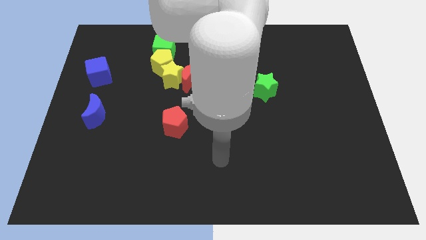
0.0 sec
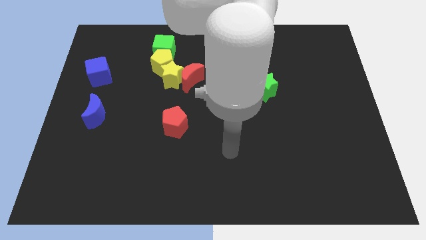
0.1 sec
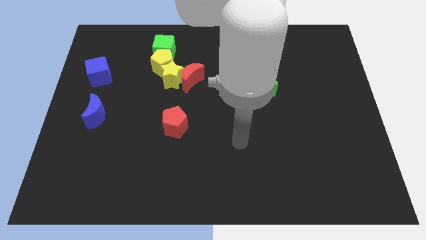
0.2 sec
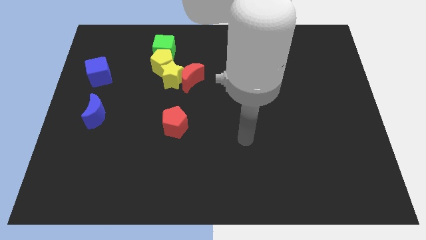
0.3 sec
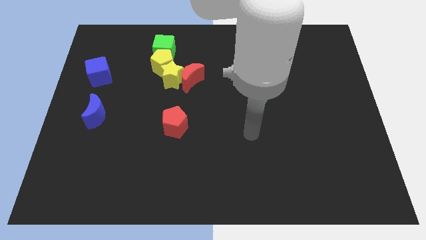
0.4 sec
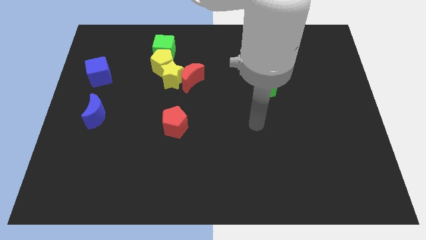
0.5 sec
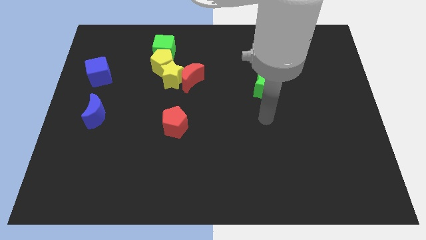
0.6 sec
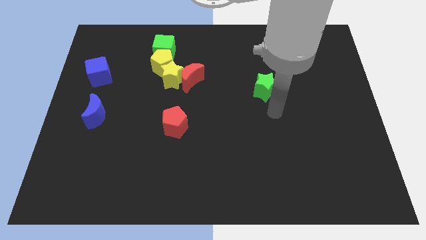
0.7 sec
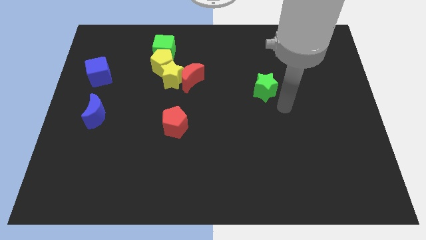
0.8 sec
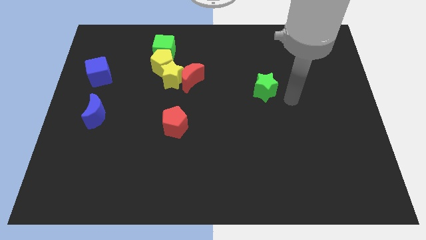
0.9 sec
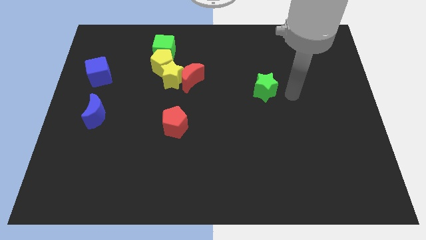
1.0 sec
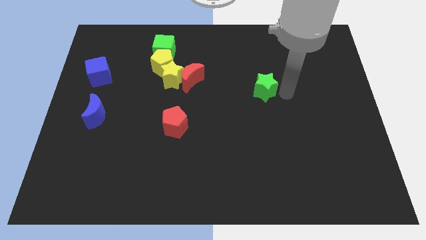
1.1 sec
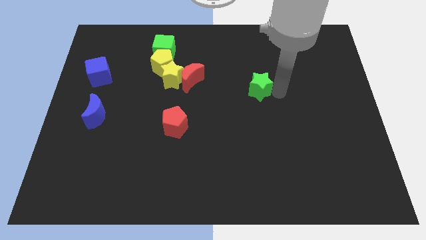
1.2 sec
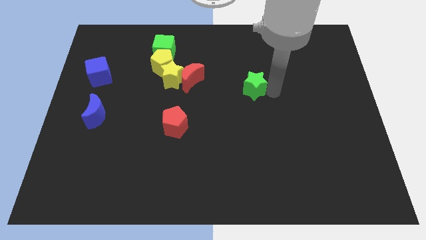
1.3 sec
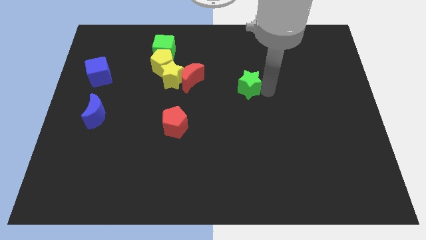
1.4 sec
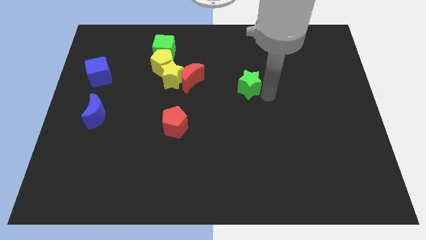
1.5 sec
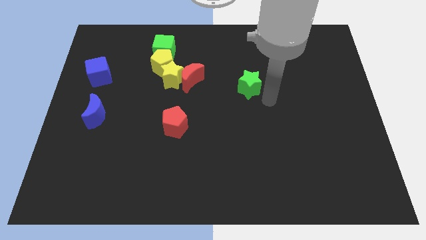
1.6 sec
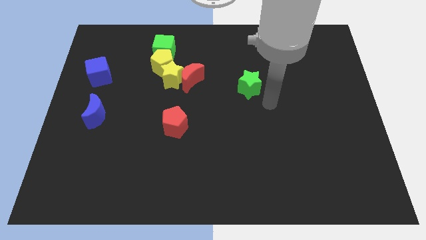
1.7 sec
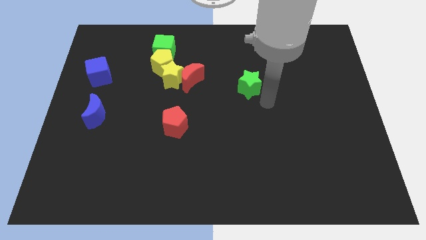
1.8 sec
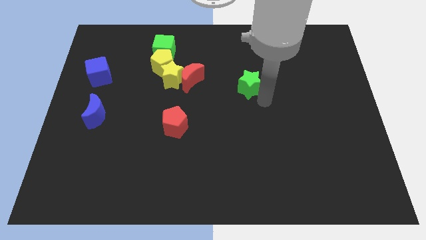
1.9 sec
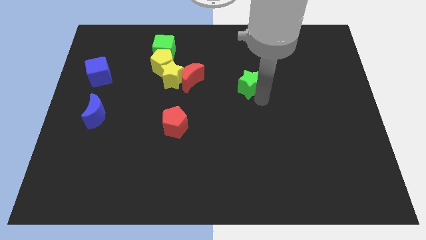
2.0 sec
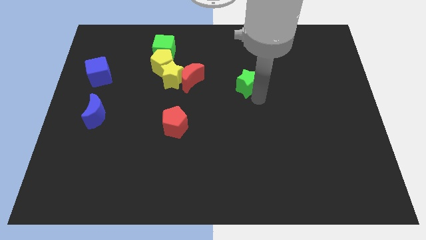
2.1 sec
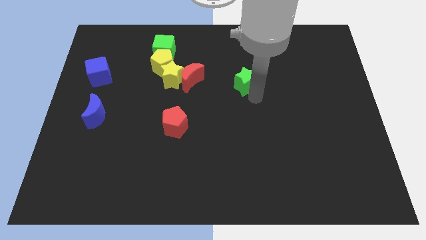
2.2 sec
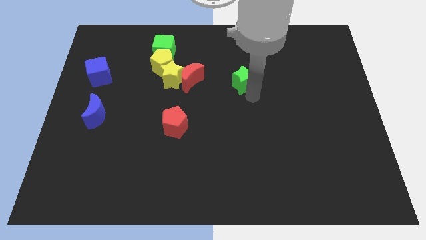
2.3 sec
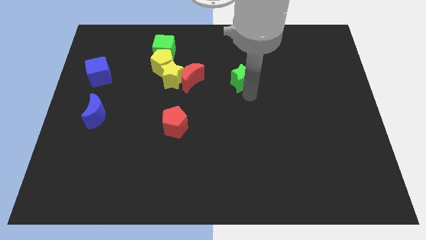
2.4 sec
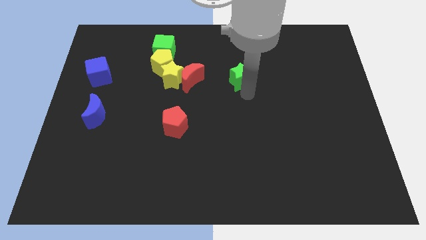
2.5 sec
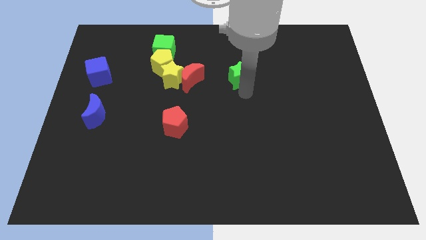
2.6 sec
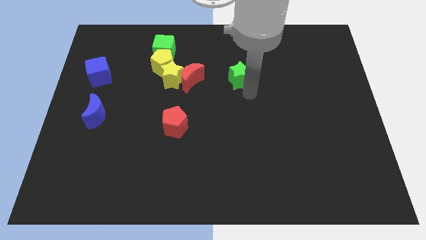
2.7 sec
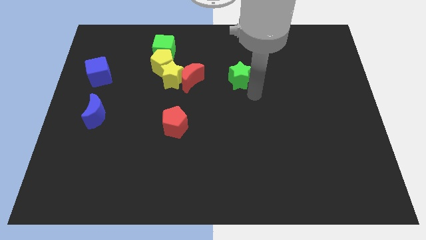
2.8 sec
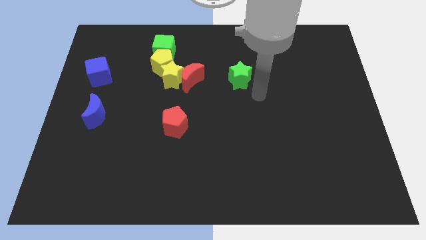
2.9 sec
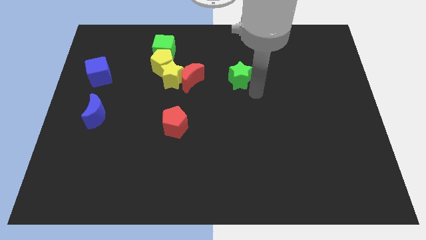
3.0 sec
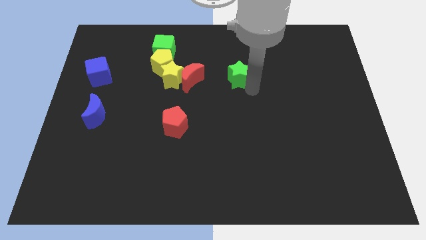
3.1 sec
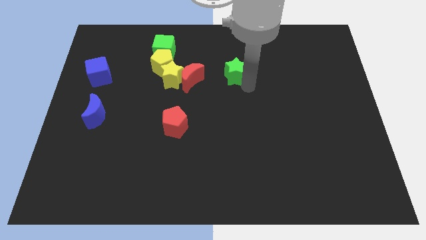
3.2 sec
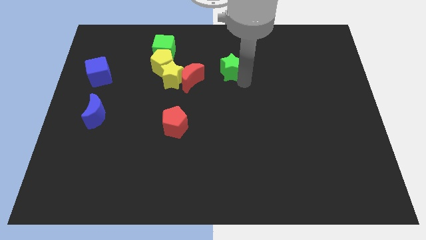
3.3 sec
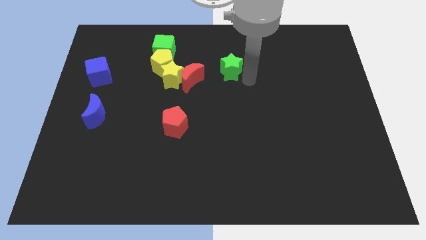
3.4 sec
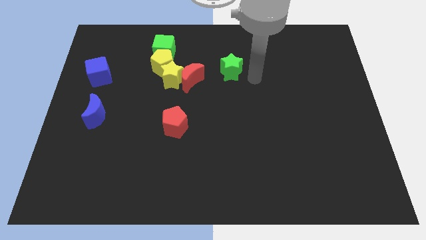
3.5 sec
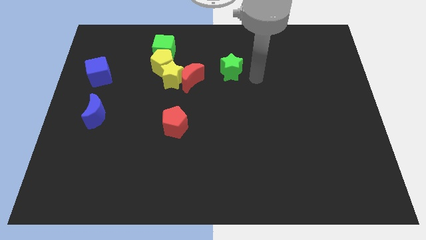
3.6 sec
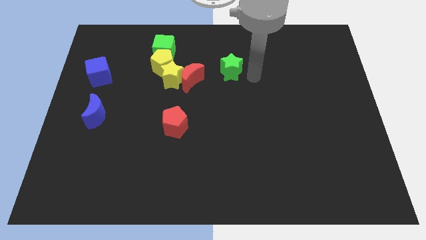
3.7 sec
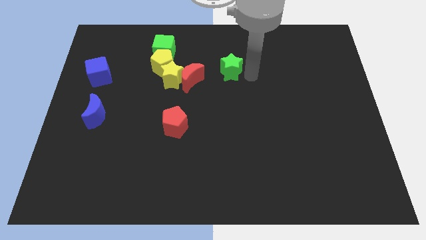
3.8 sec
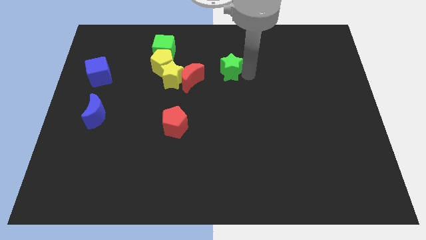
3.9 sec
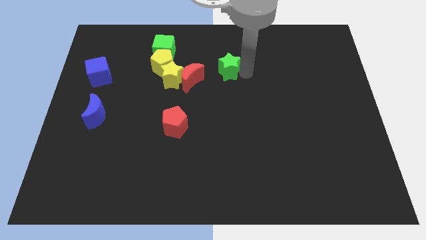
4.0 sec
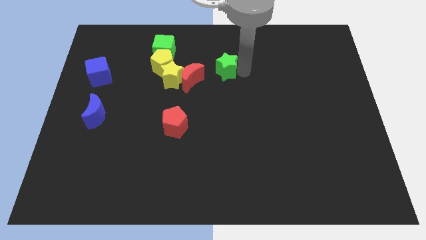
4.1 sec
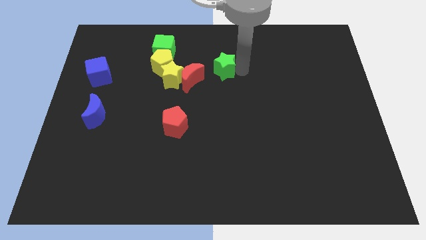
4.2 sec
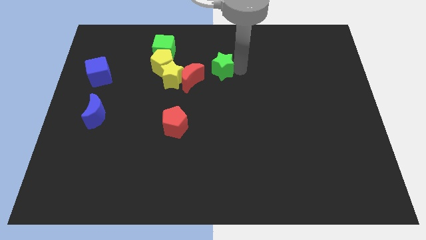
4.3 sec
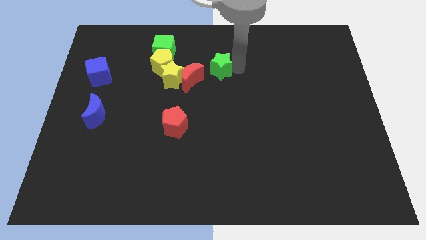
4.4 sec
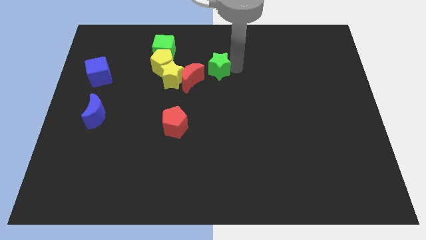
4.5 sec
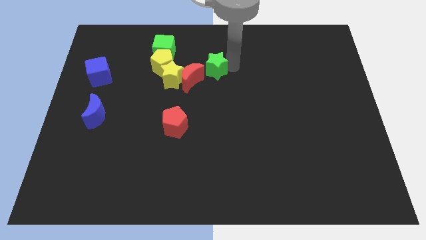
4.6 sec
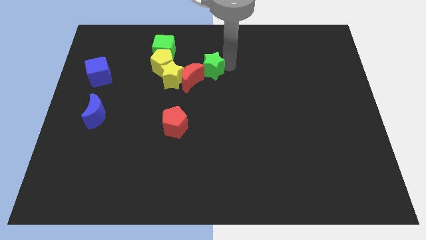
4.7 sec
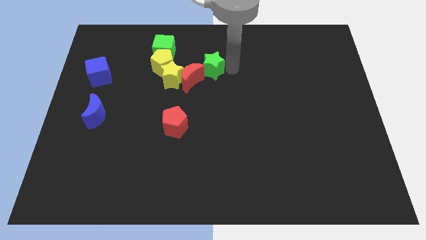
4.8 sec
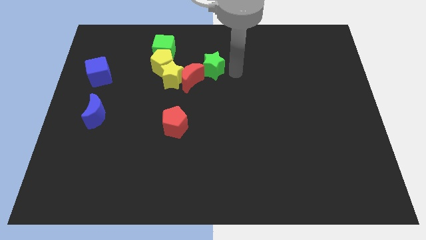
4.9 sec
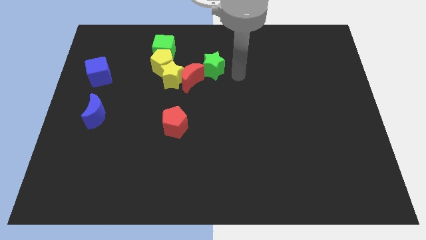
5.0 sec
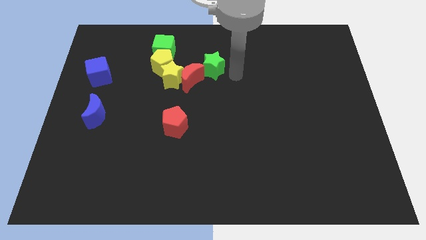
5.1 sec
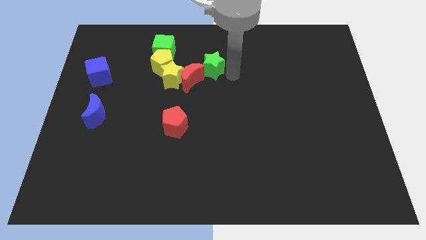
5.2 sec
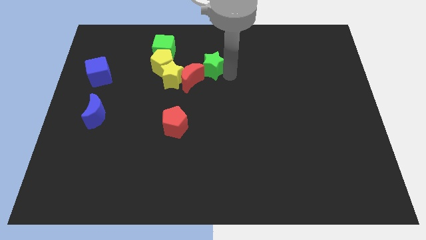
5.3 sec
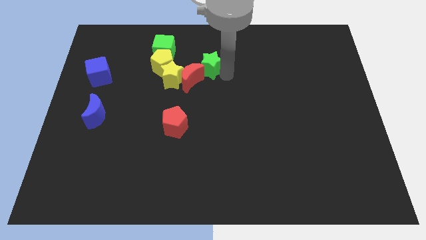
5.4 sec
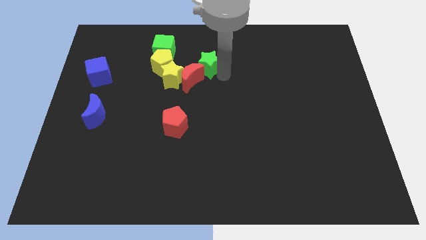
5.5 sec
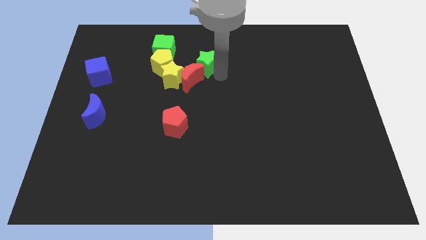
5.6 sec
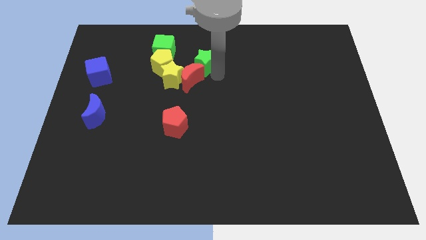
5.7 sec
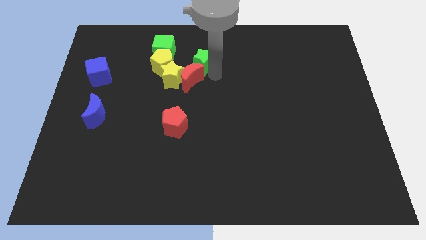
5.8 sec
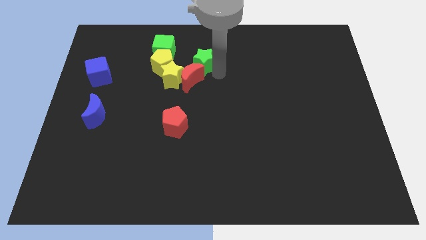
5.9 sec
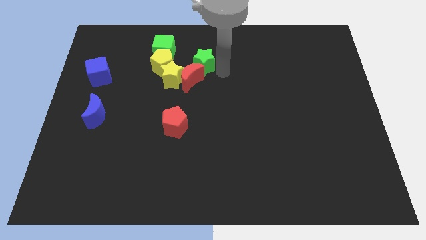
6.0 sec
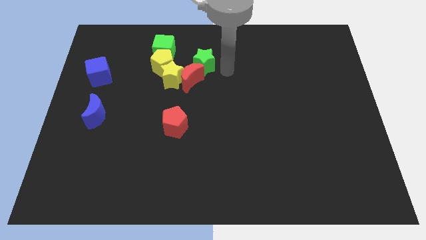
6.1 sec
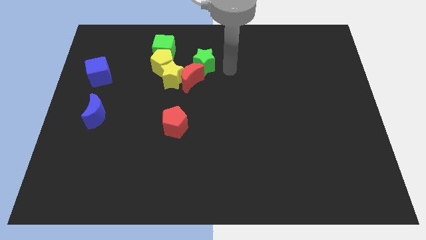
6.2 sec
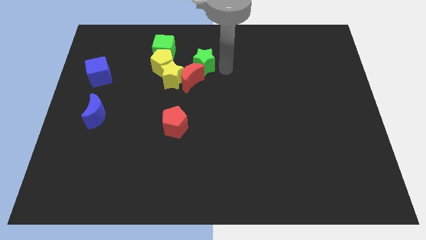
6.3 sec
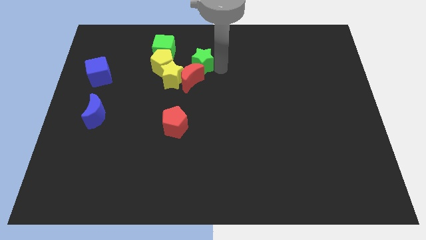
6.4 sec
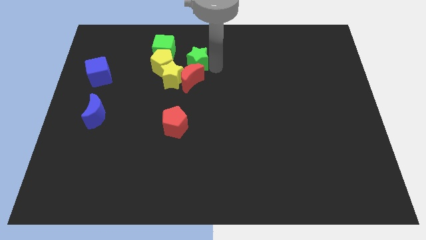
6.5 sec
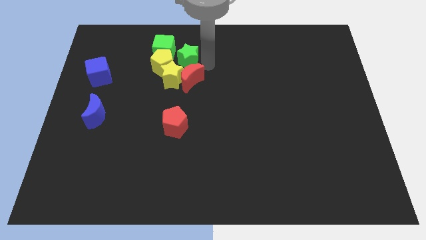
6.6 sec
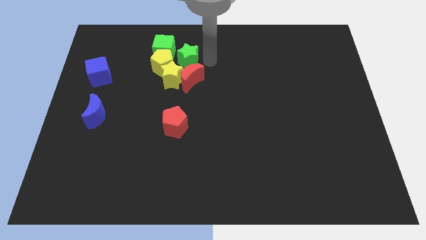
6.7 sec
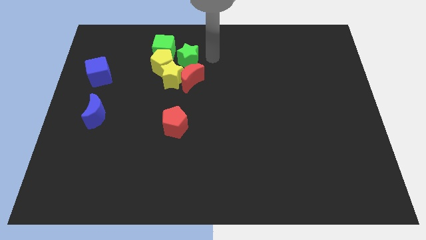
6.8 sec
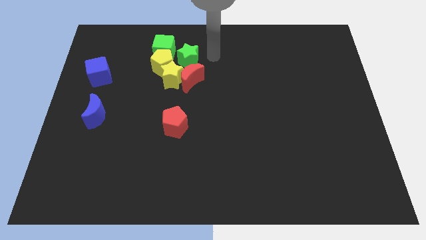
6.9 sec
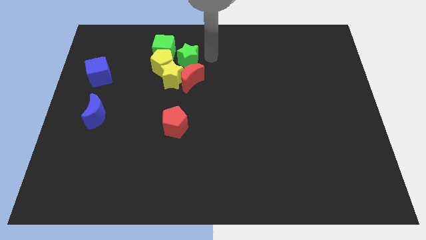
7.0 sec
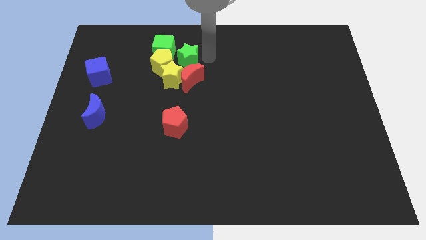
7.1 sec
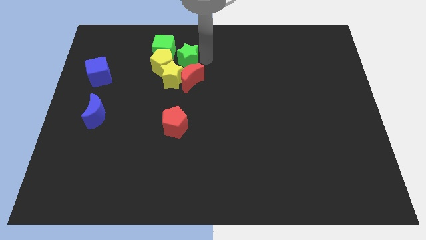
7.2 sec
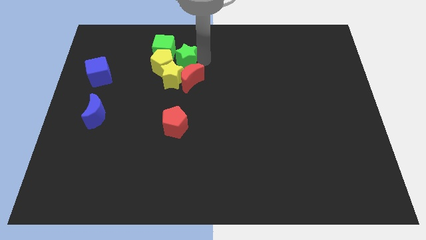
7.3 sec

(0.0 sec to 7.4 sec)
move the green star next to the yellow pentagon

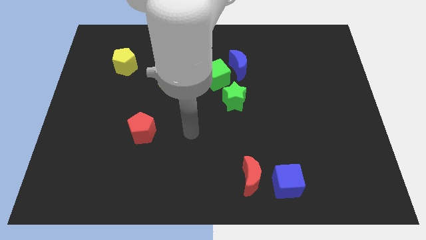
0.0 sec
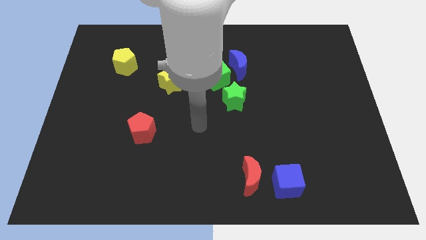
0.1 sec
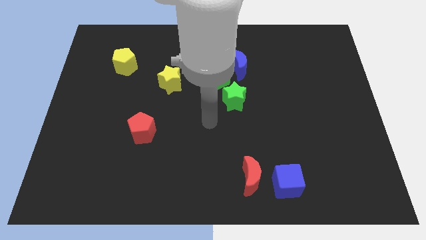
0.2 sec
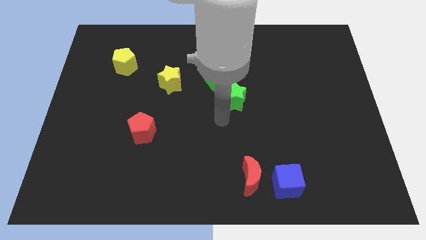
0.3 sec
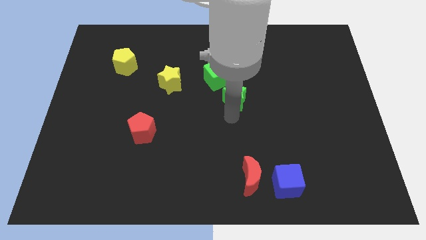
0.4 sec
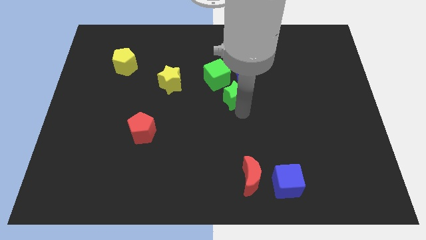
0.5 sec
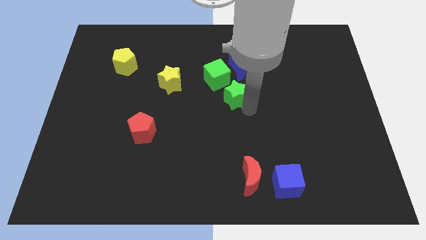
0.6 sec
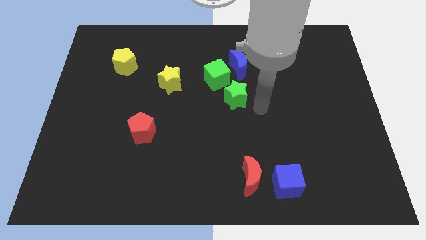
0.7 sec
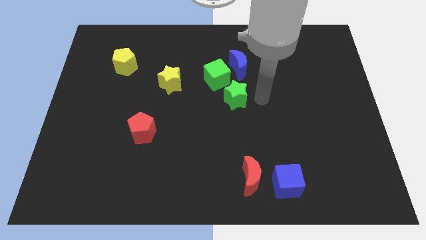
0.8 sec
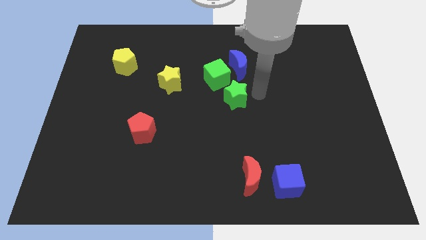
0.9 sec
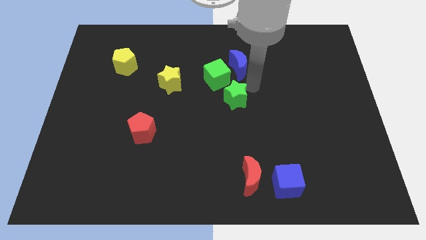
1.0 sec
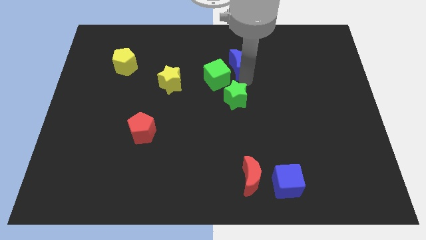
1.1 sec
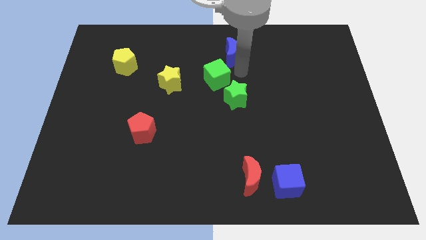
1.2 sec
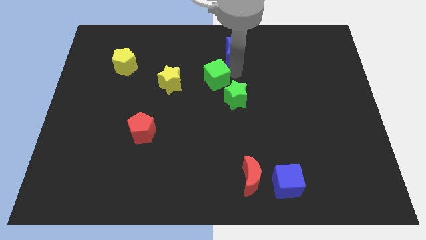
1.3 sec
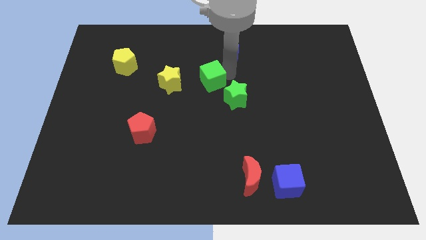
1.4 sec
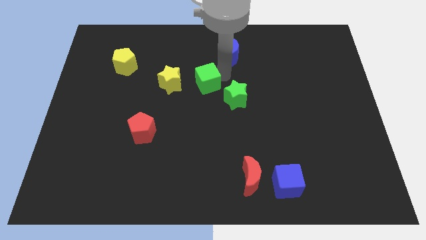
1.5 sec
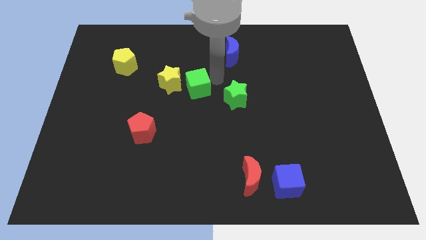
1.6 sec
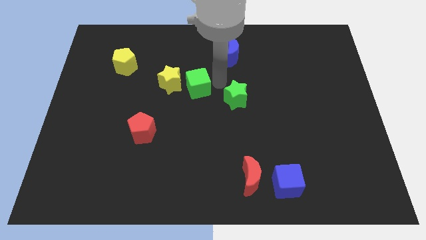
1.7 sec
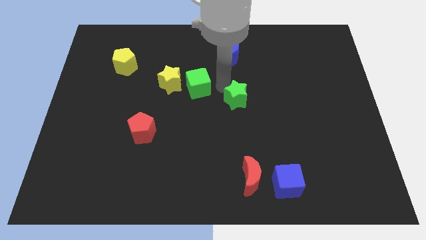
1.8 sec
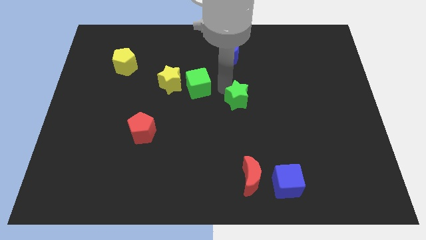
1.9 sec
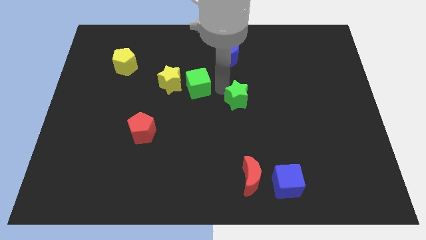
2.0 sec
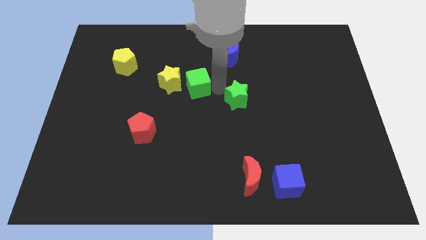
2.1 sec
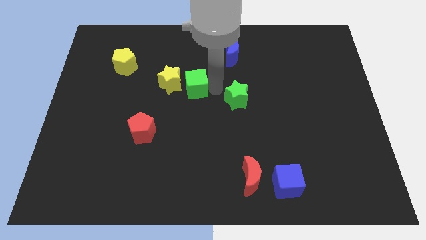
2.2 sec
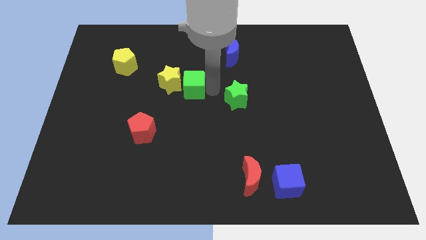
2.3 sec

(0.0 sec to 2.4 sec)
push the green cube towards the yellow star
